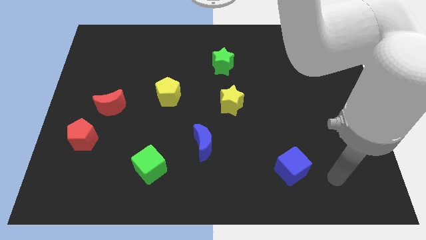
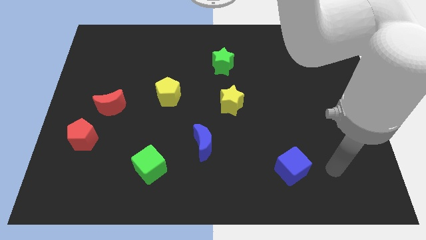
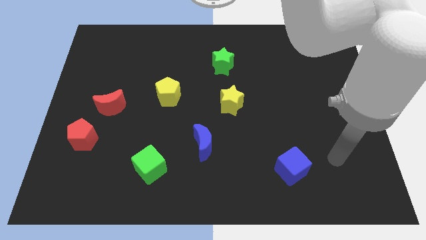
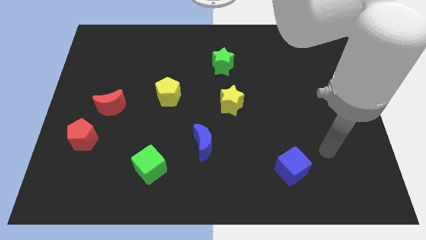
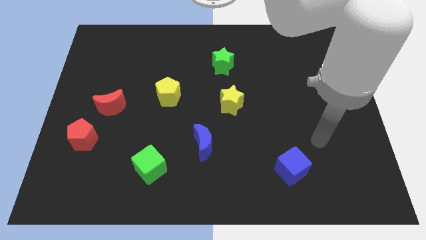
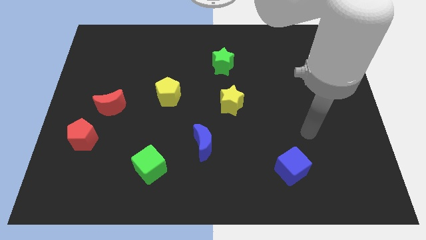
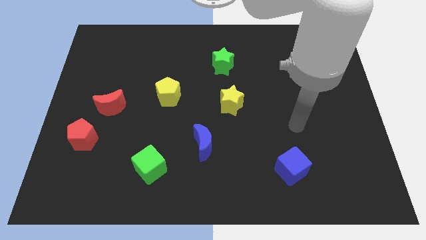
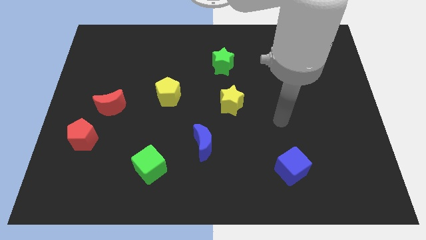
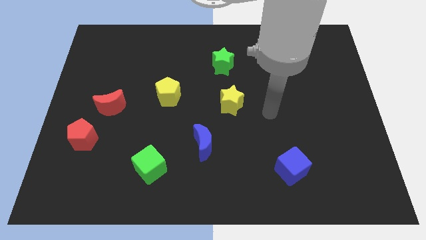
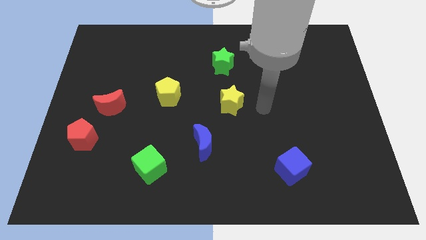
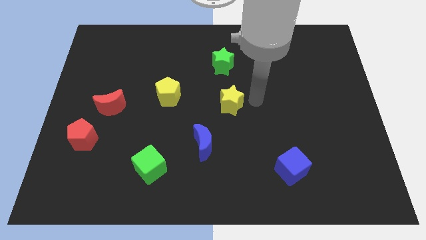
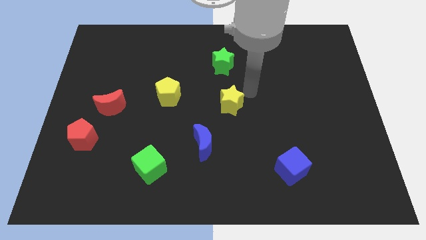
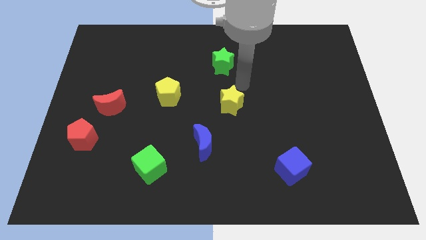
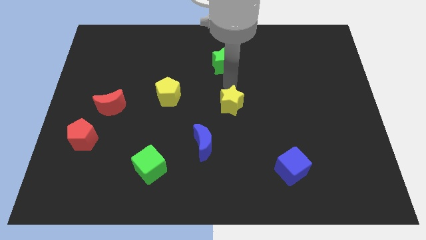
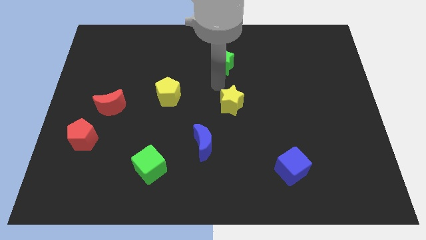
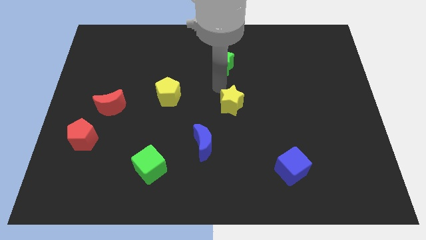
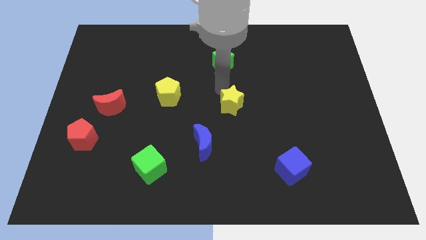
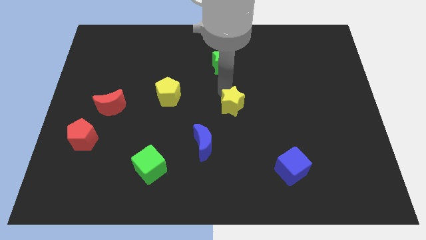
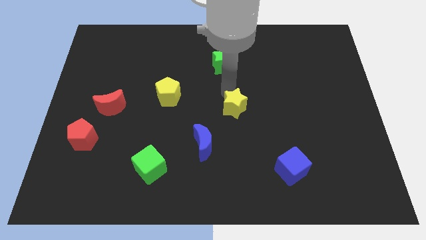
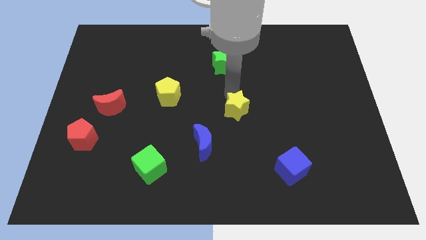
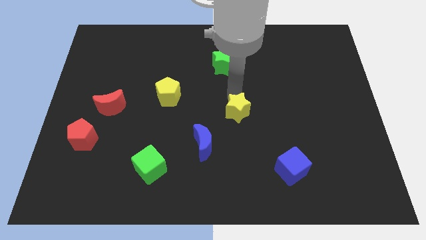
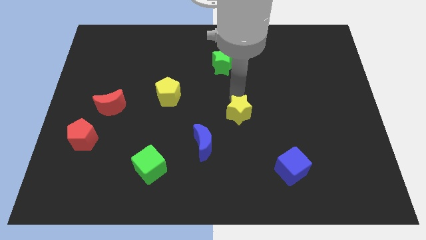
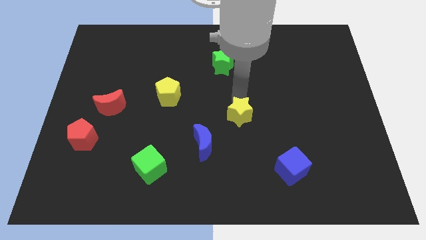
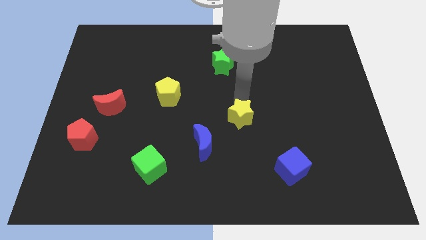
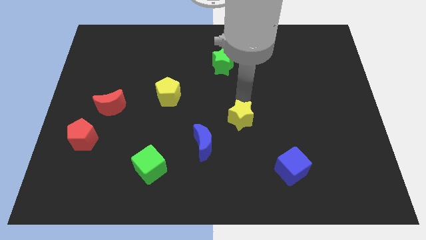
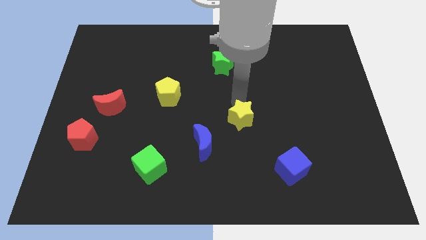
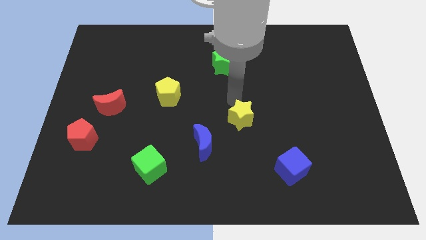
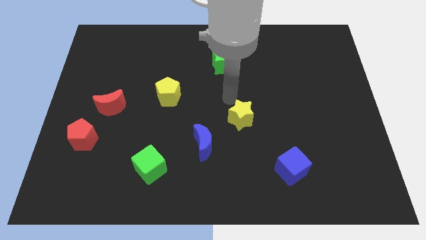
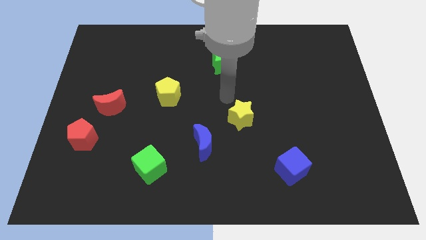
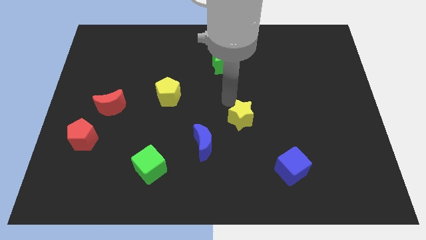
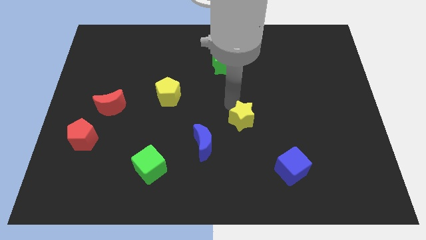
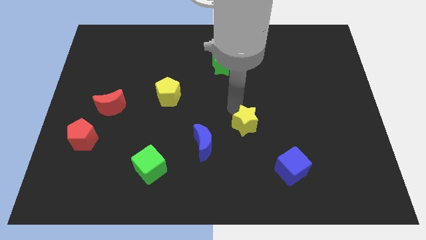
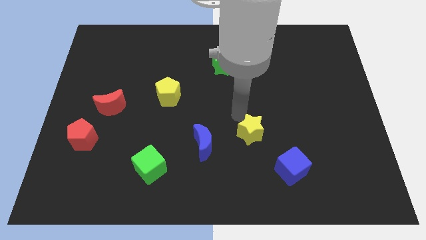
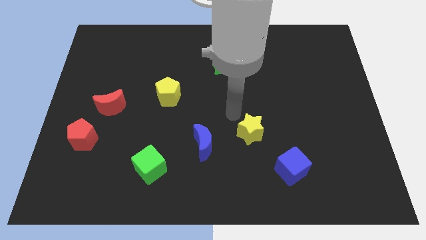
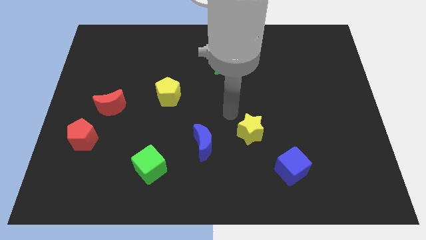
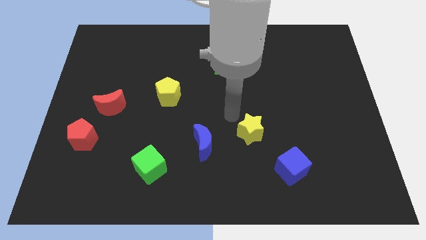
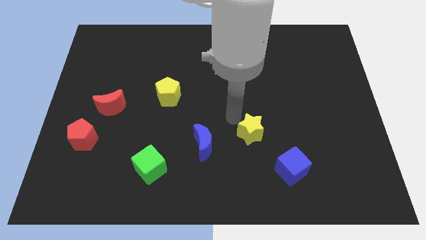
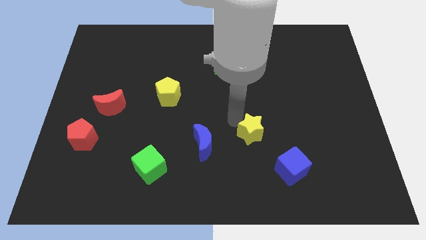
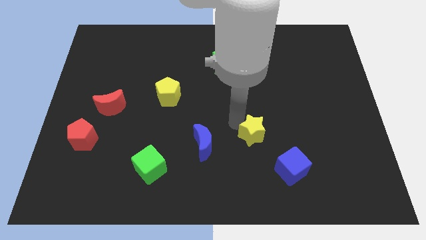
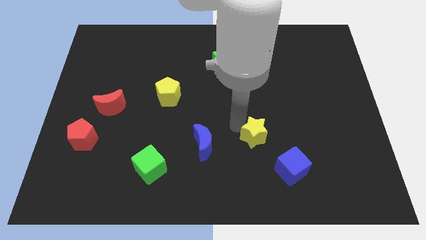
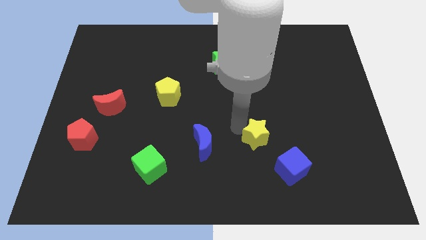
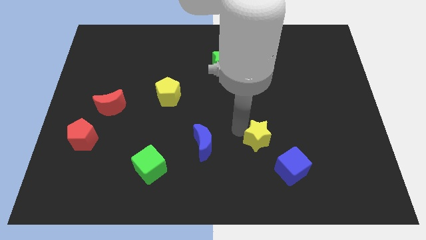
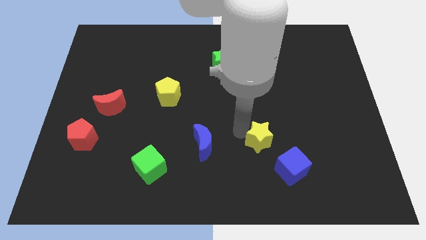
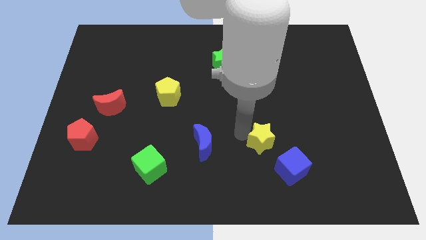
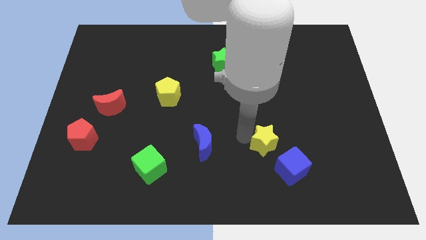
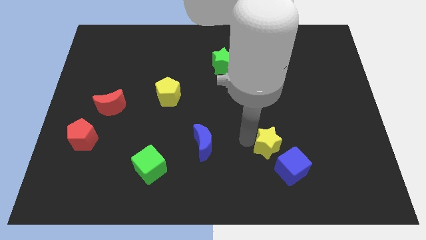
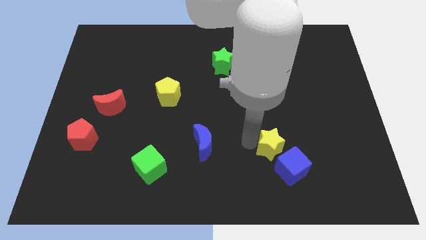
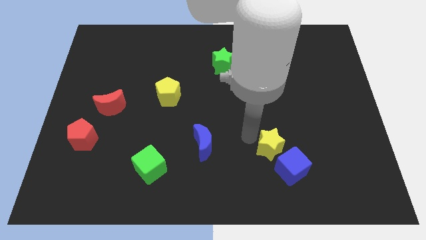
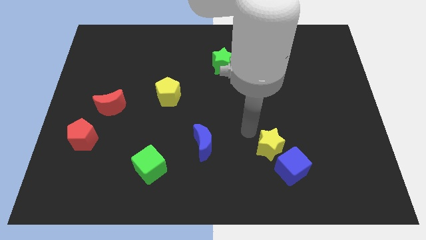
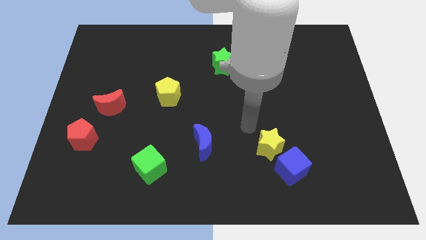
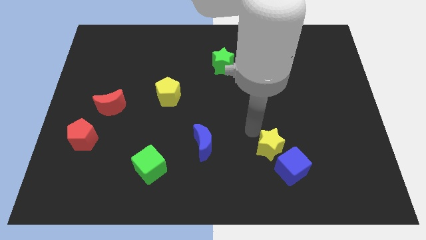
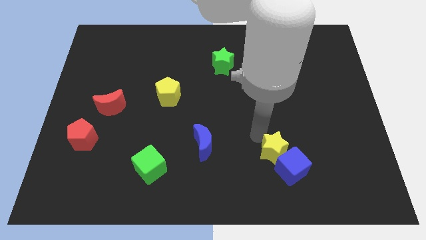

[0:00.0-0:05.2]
push the yellow star close to the blue cube

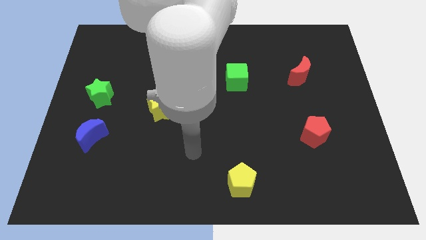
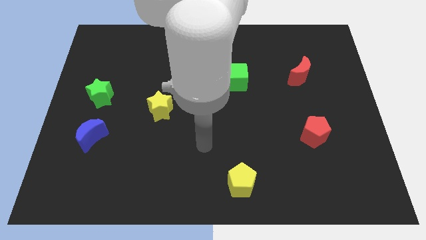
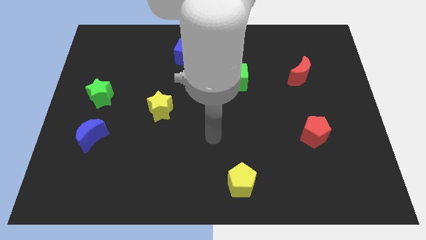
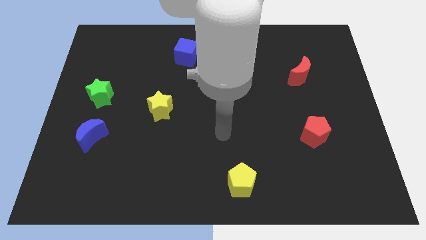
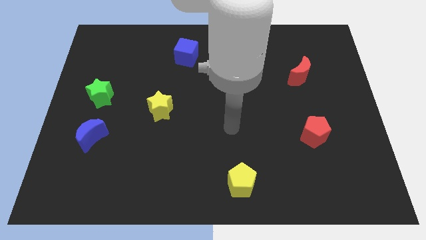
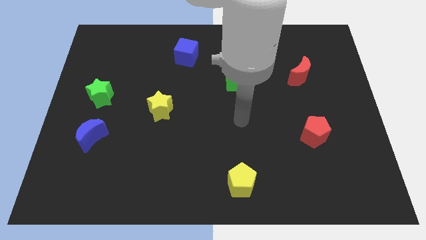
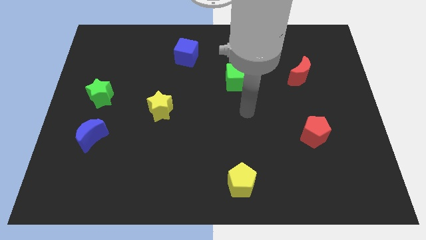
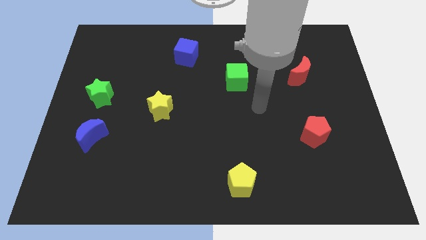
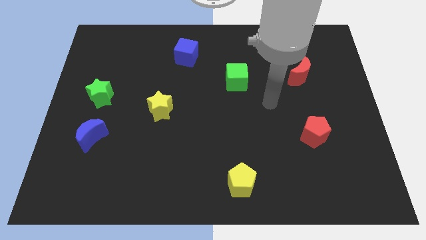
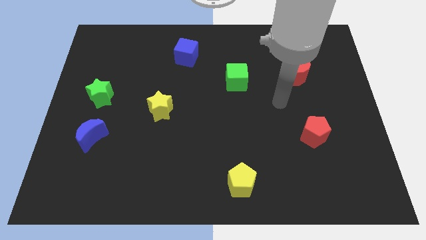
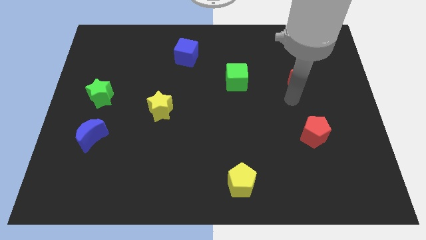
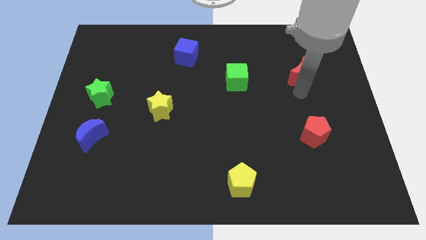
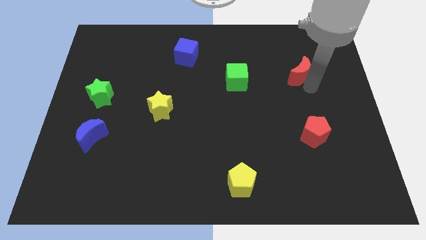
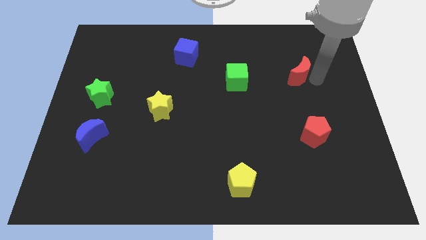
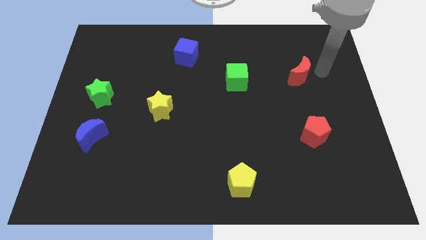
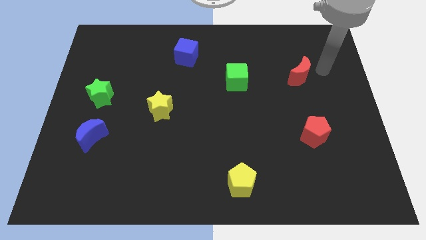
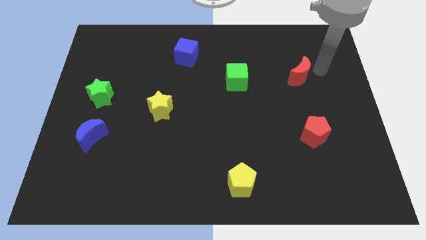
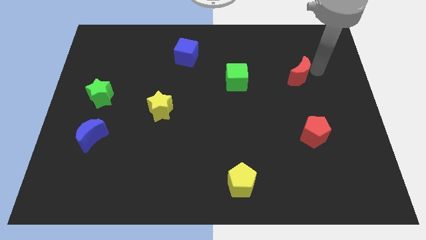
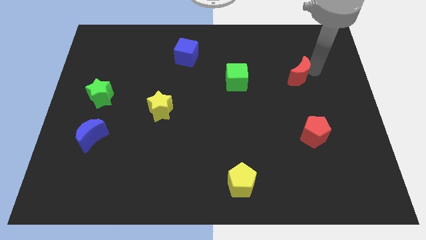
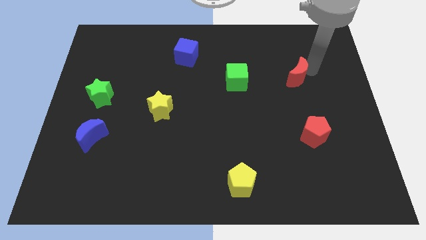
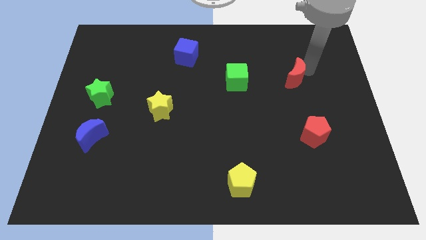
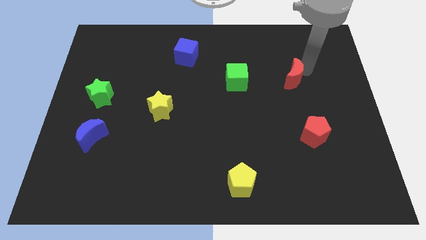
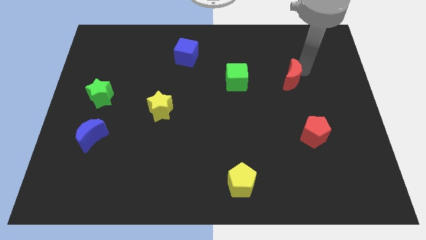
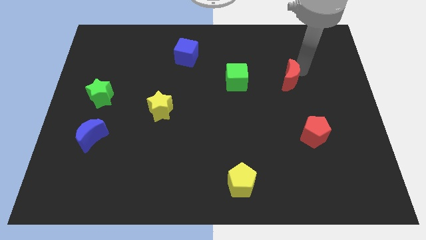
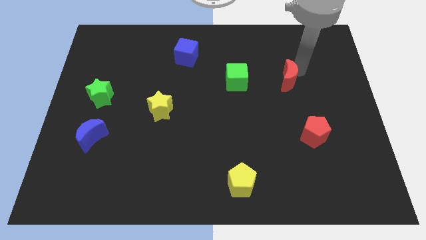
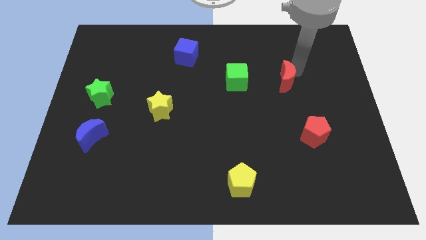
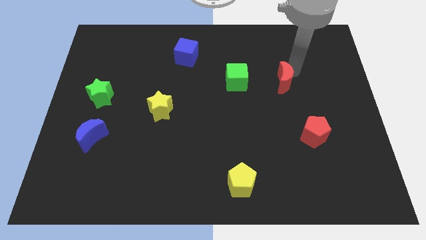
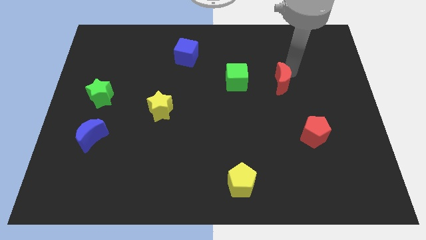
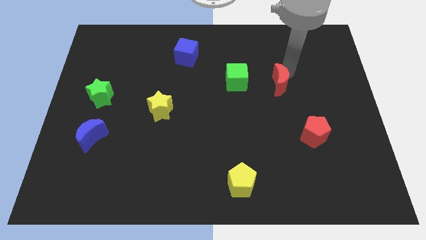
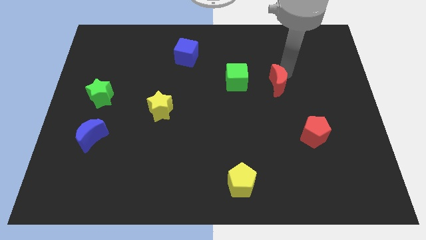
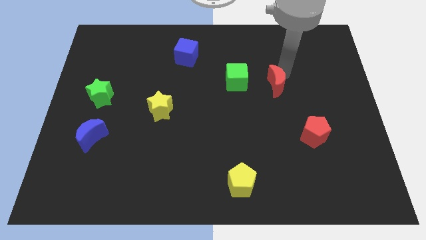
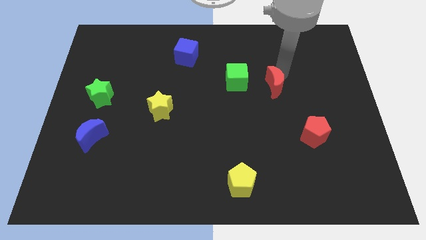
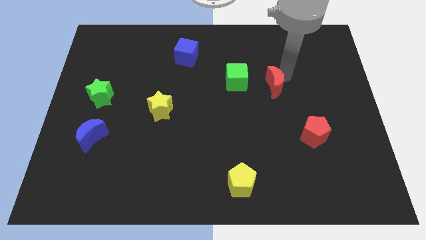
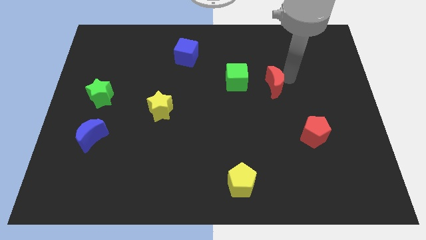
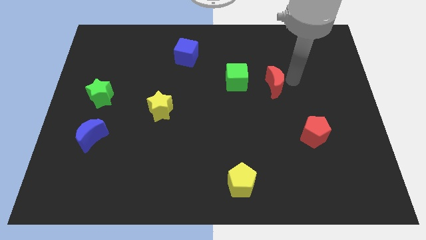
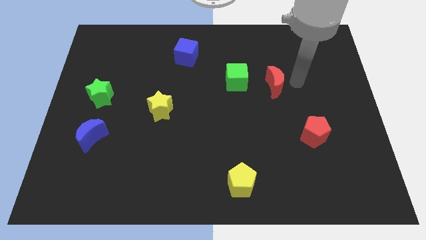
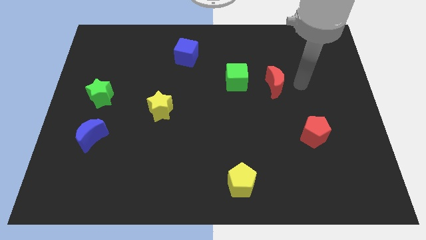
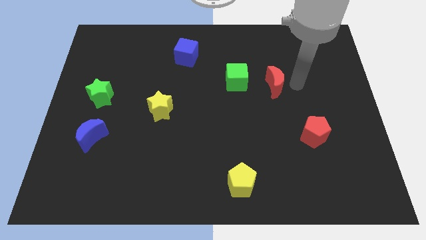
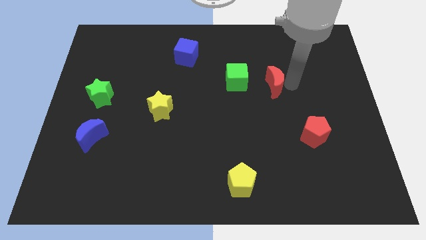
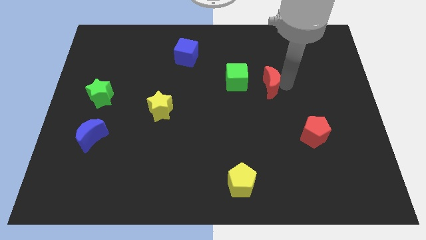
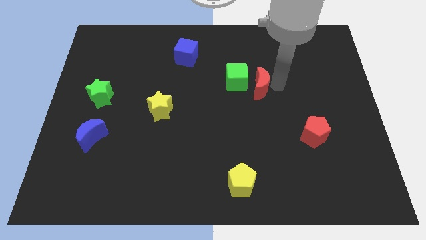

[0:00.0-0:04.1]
put the red moon close to the green cube
